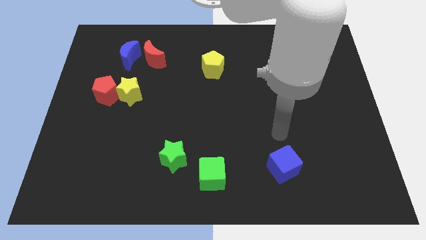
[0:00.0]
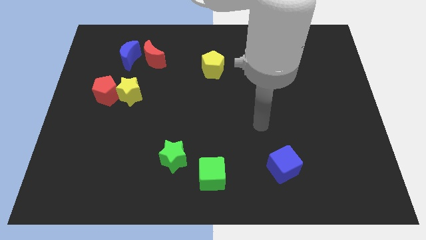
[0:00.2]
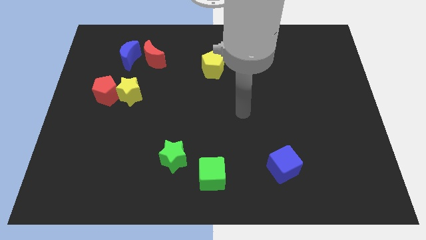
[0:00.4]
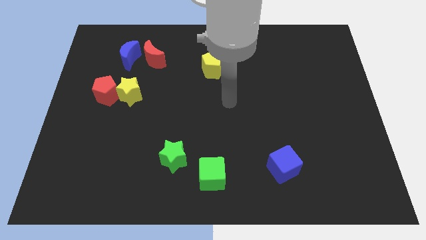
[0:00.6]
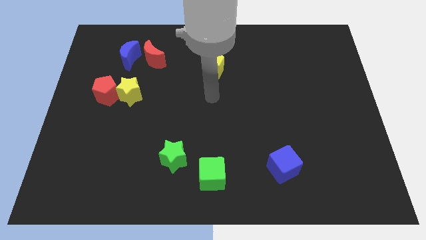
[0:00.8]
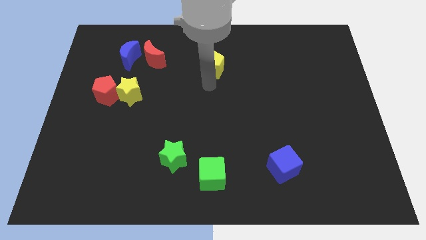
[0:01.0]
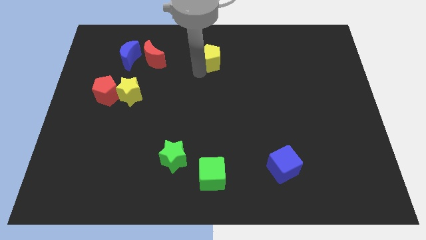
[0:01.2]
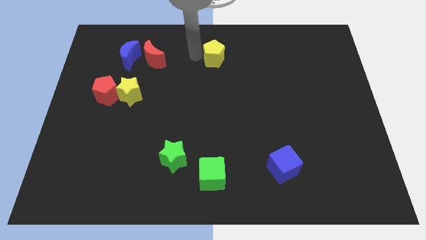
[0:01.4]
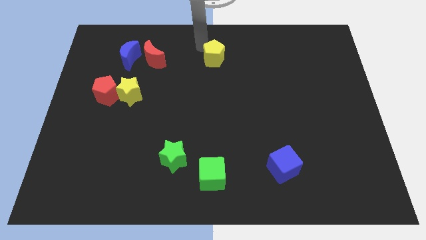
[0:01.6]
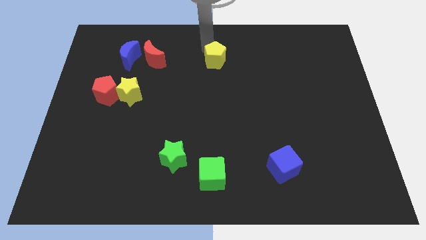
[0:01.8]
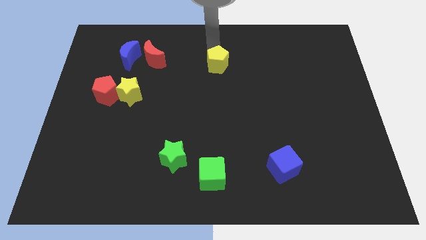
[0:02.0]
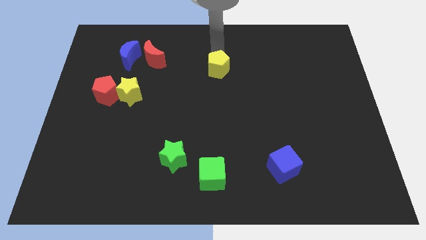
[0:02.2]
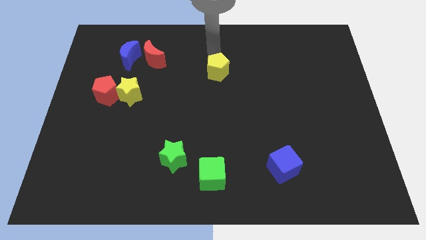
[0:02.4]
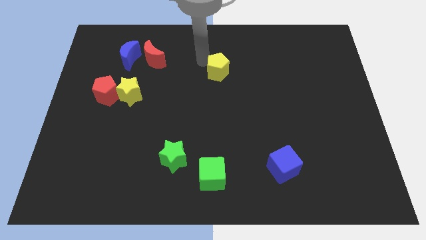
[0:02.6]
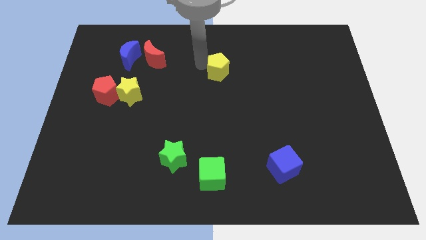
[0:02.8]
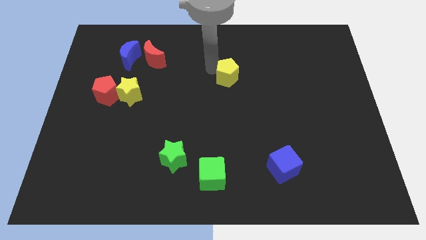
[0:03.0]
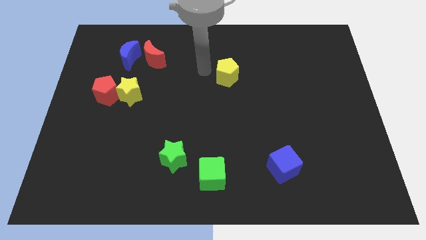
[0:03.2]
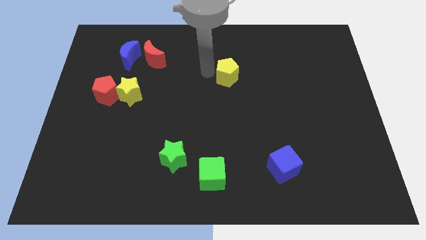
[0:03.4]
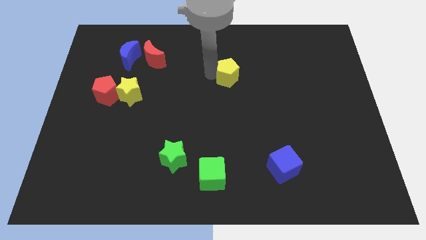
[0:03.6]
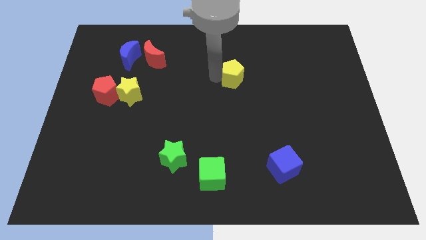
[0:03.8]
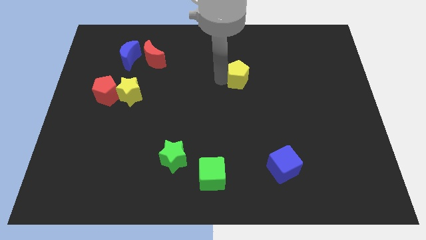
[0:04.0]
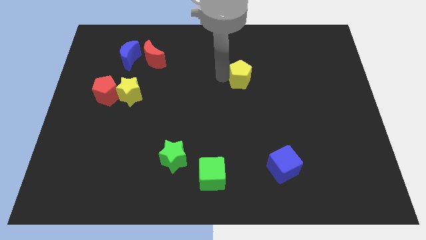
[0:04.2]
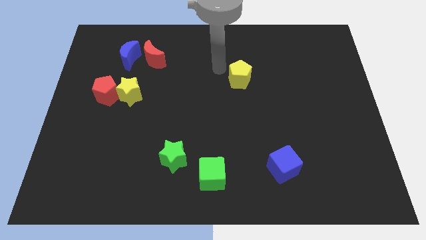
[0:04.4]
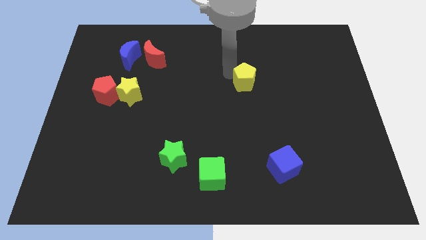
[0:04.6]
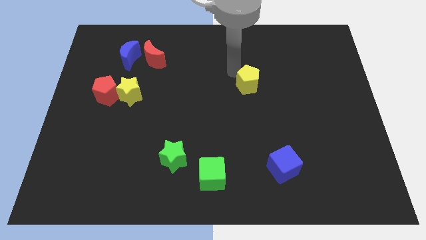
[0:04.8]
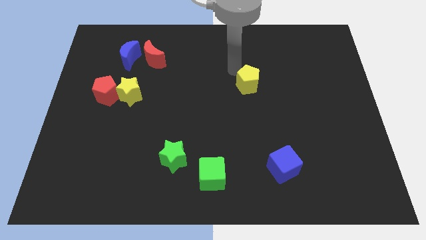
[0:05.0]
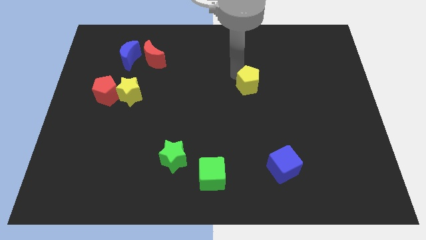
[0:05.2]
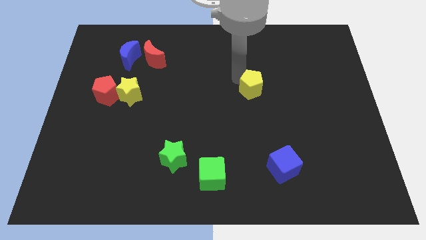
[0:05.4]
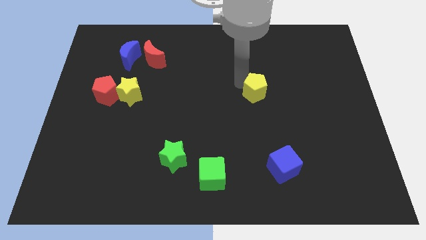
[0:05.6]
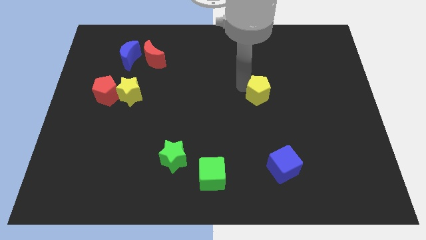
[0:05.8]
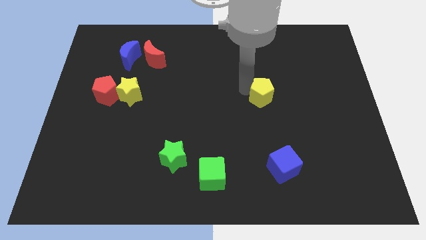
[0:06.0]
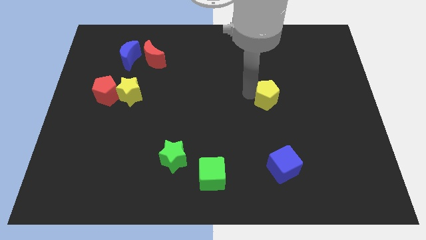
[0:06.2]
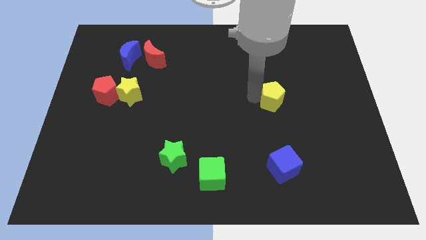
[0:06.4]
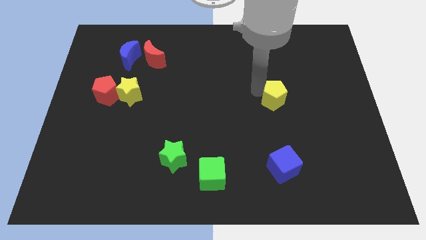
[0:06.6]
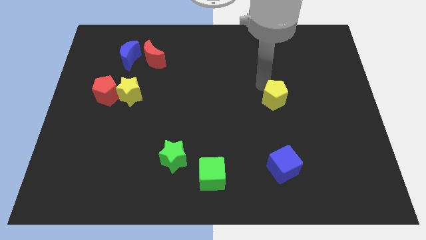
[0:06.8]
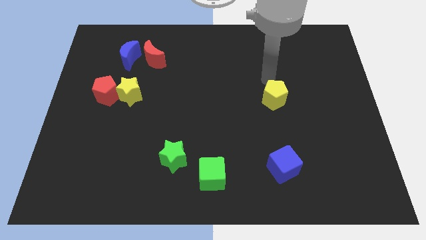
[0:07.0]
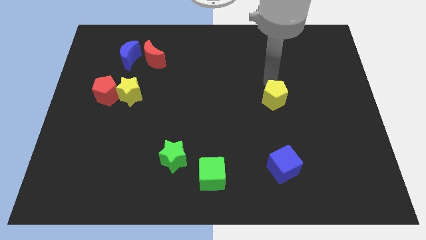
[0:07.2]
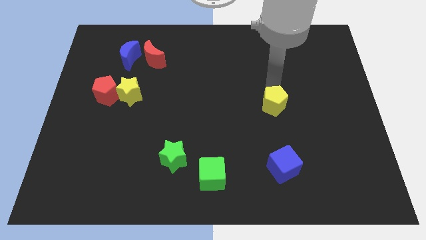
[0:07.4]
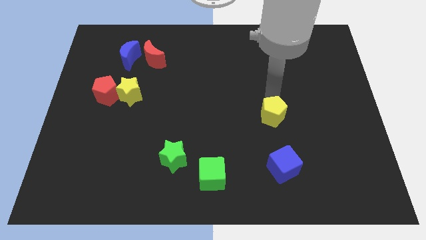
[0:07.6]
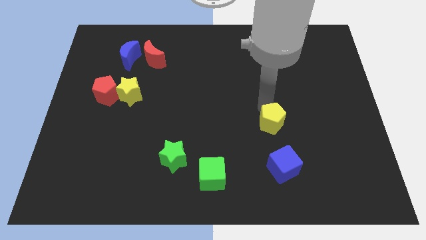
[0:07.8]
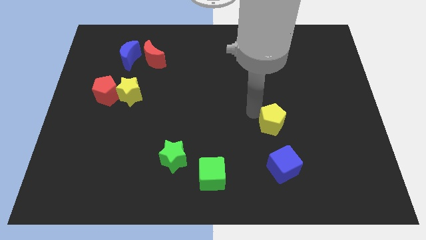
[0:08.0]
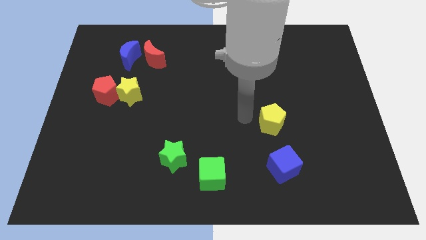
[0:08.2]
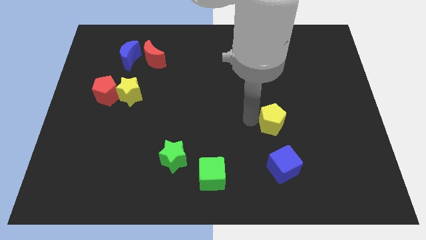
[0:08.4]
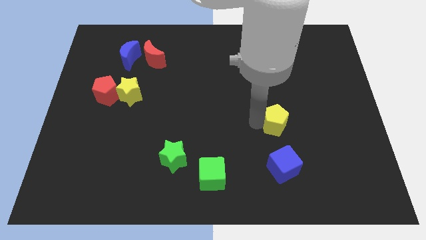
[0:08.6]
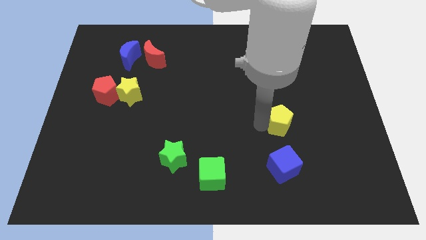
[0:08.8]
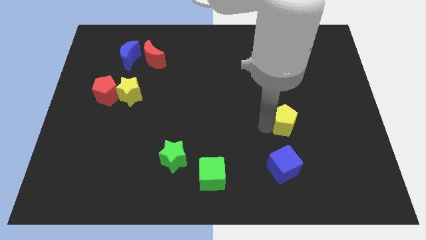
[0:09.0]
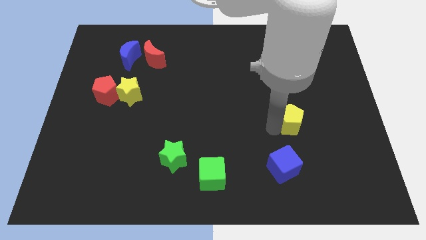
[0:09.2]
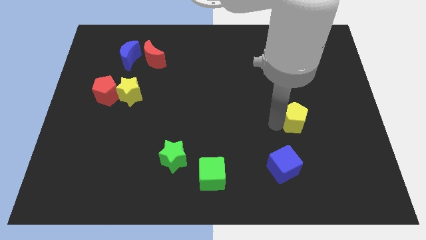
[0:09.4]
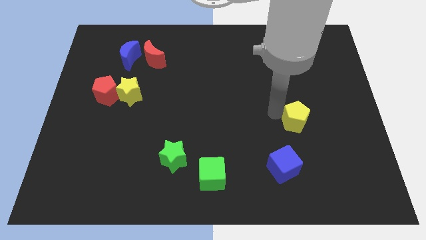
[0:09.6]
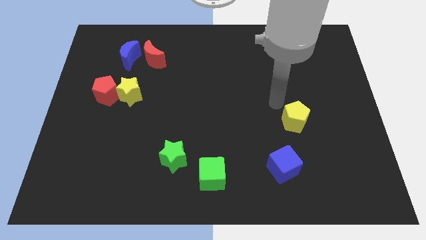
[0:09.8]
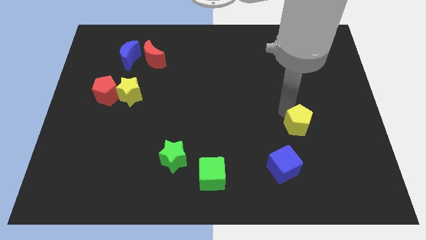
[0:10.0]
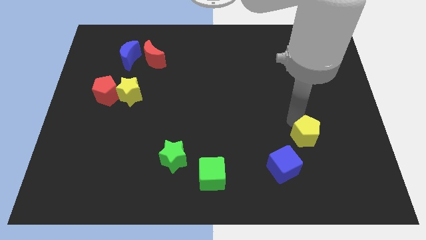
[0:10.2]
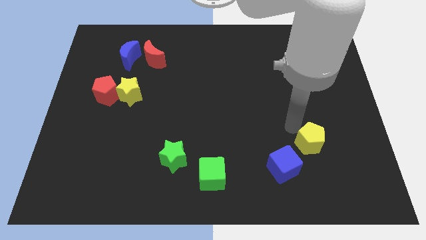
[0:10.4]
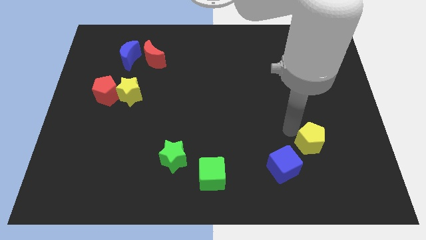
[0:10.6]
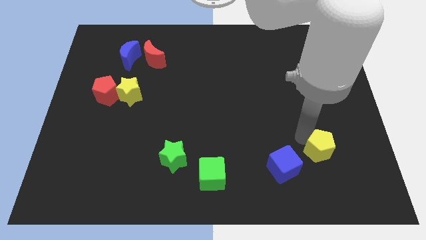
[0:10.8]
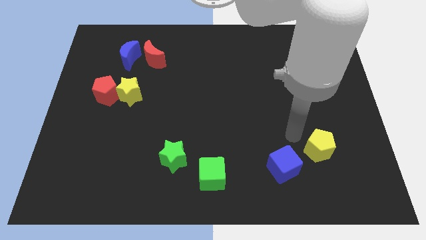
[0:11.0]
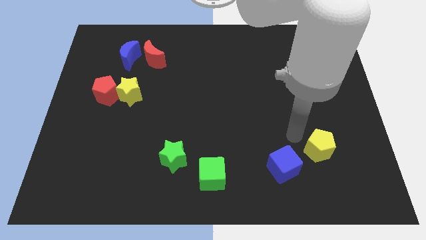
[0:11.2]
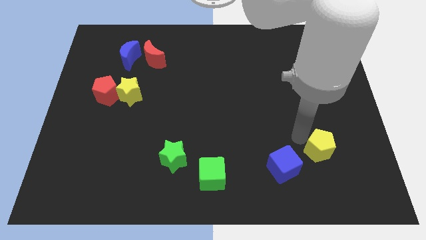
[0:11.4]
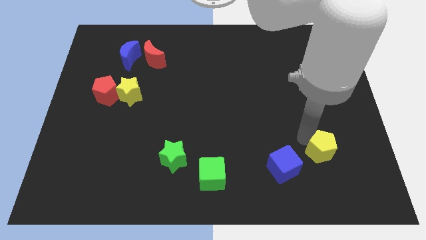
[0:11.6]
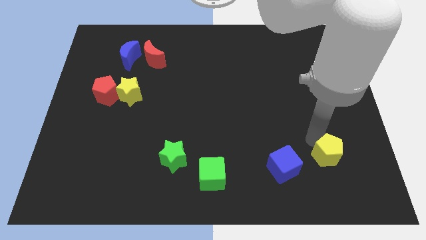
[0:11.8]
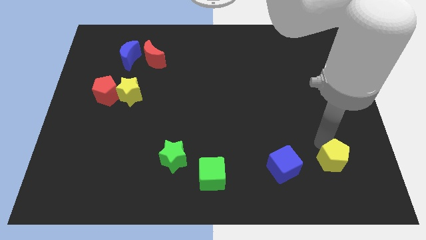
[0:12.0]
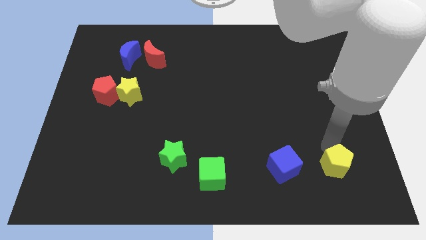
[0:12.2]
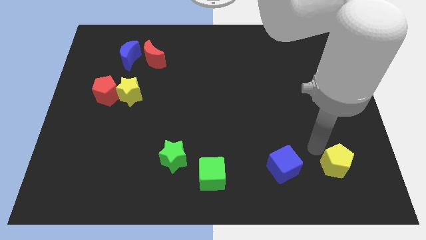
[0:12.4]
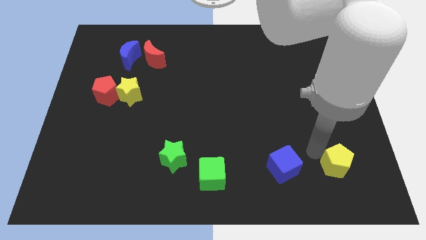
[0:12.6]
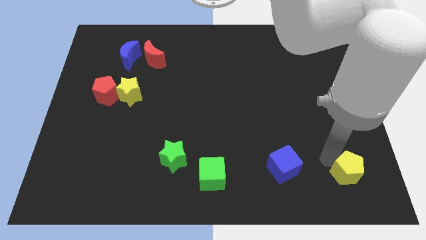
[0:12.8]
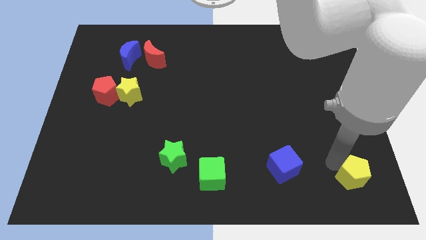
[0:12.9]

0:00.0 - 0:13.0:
push the yellow pentagon to the bottom right of the board

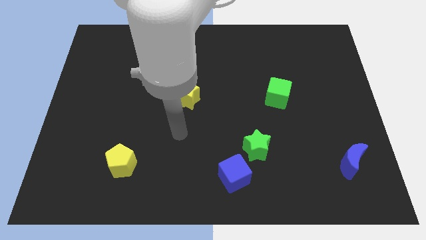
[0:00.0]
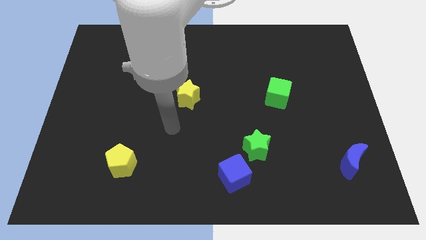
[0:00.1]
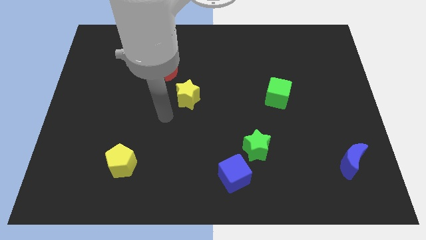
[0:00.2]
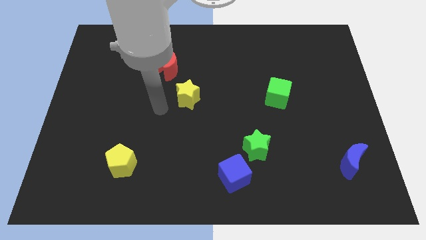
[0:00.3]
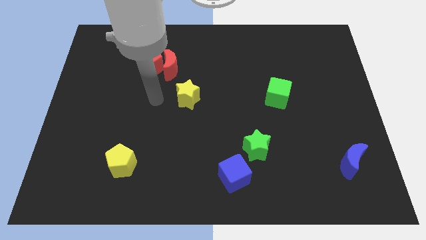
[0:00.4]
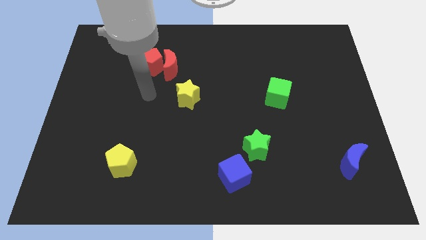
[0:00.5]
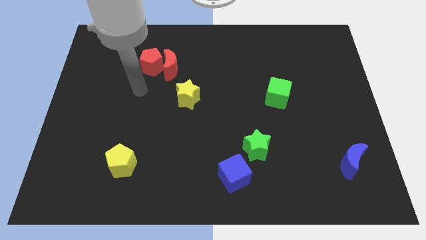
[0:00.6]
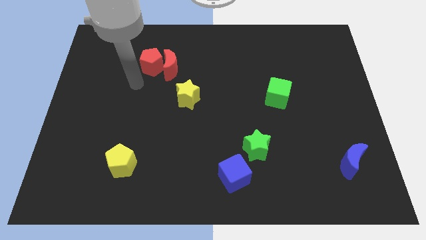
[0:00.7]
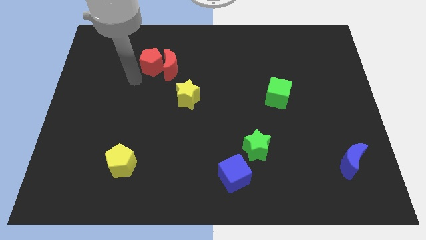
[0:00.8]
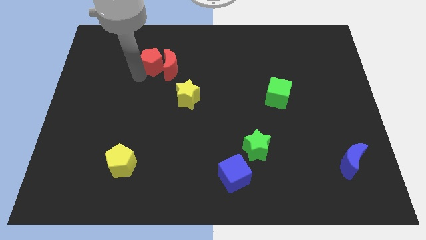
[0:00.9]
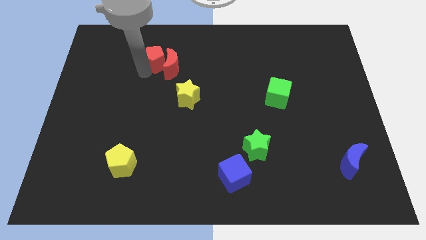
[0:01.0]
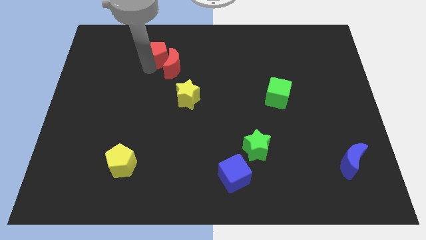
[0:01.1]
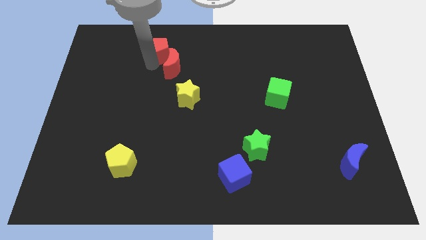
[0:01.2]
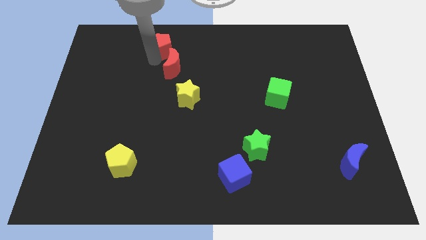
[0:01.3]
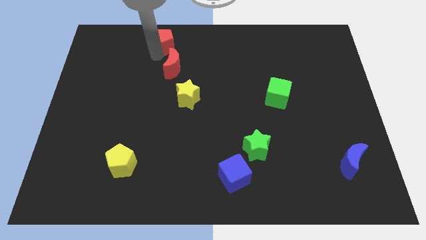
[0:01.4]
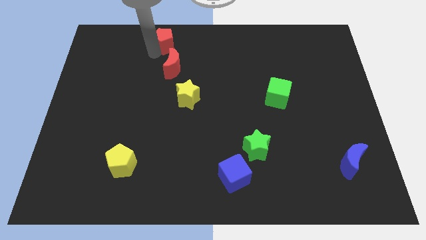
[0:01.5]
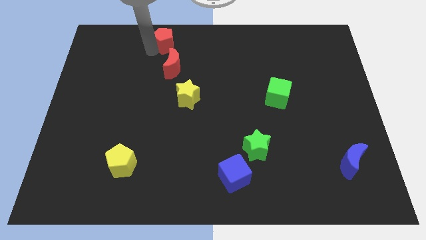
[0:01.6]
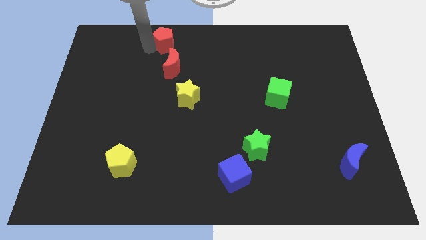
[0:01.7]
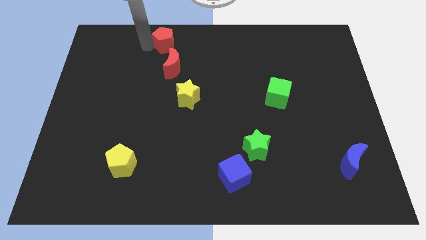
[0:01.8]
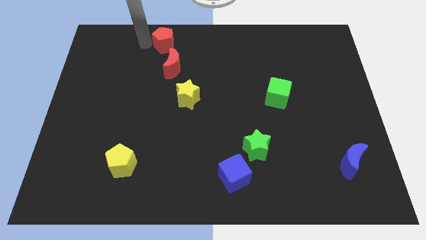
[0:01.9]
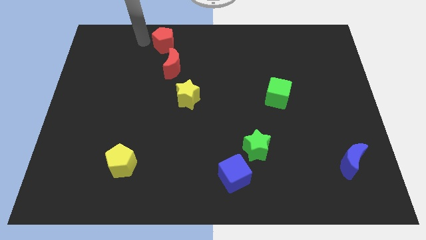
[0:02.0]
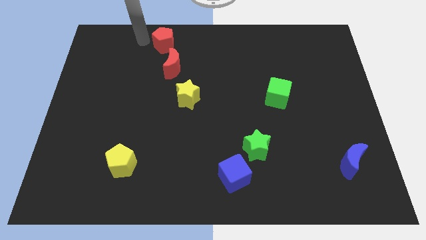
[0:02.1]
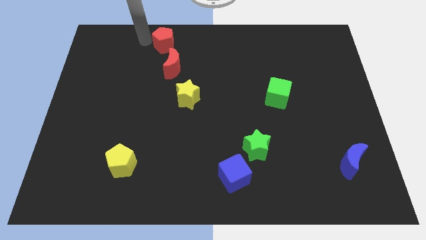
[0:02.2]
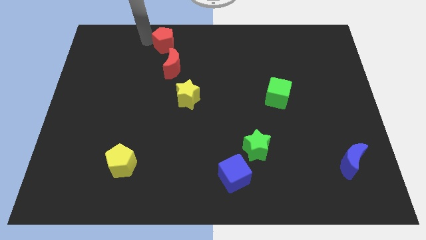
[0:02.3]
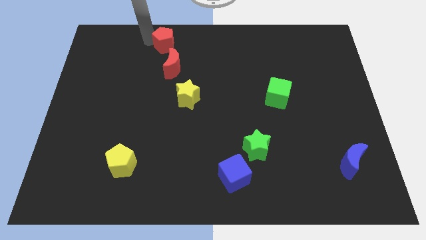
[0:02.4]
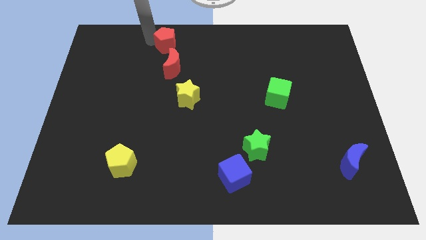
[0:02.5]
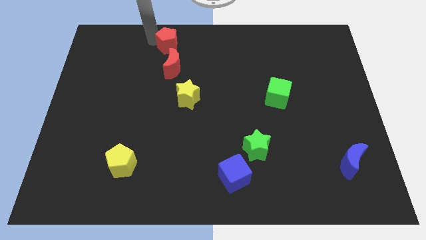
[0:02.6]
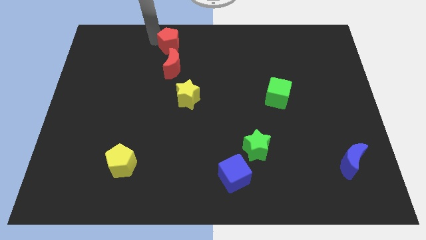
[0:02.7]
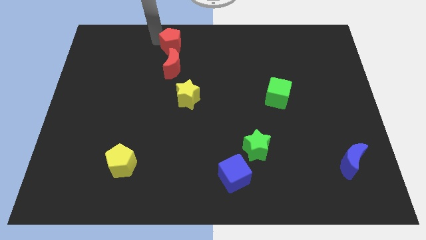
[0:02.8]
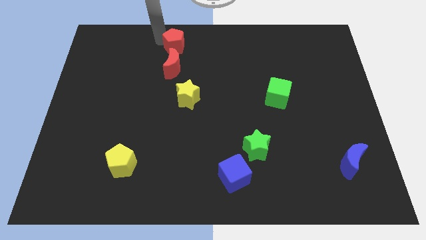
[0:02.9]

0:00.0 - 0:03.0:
push the red pentagon to the top side
